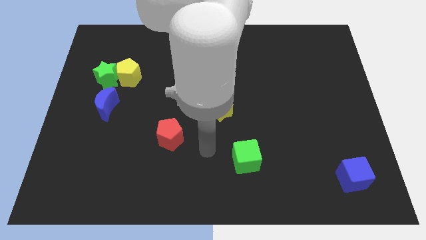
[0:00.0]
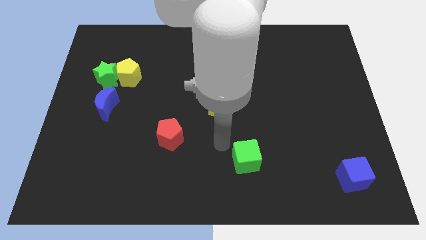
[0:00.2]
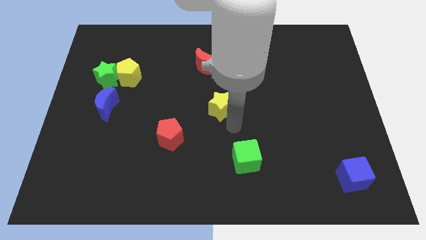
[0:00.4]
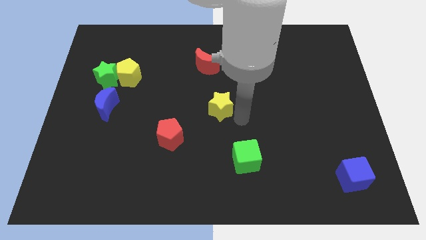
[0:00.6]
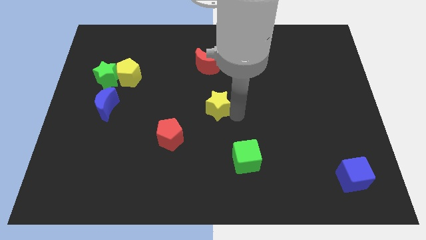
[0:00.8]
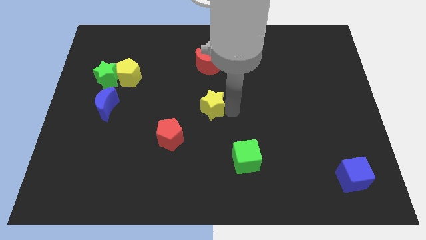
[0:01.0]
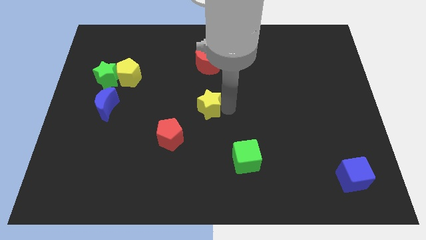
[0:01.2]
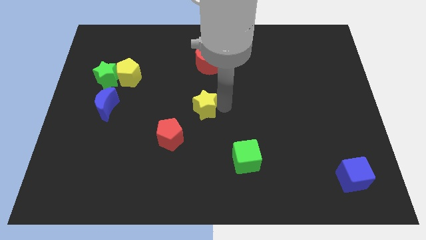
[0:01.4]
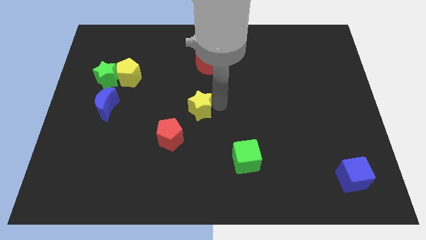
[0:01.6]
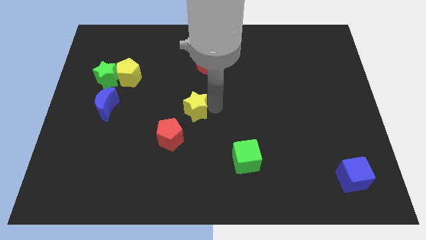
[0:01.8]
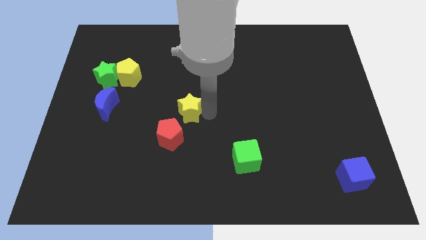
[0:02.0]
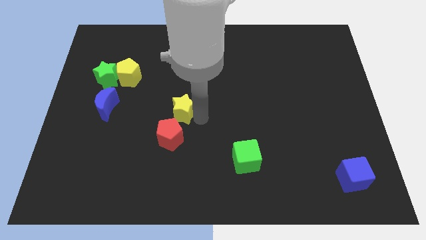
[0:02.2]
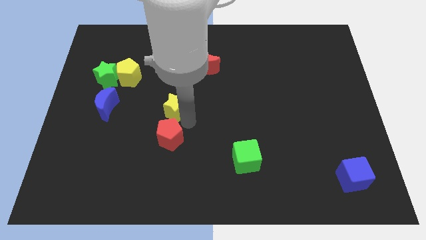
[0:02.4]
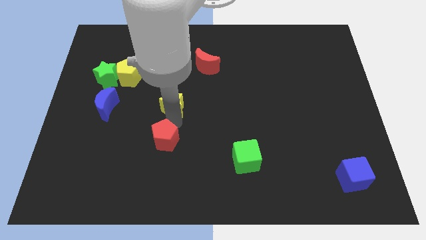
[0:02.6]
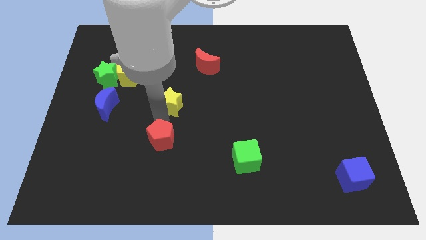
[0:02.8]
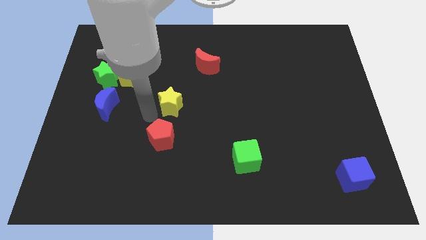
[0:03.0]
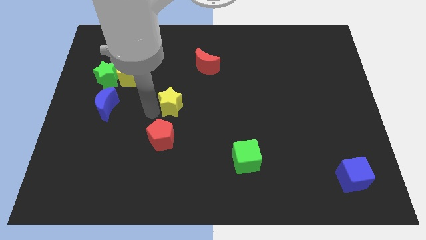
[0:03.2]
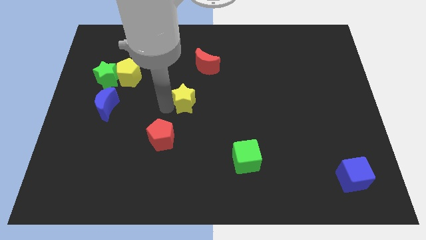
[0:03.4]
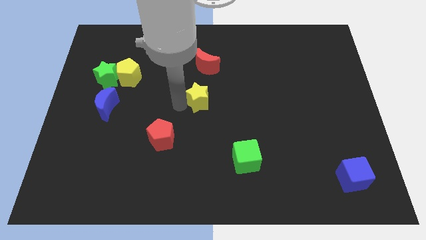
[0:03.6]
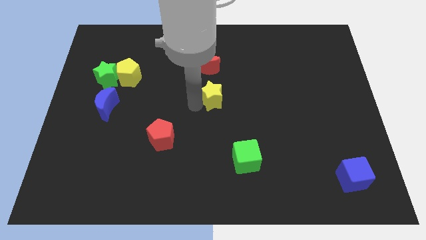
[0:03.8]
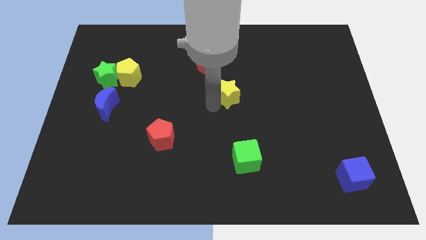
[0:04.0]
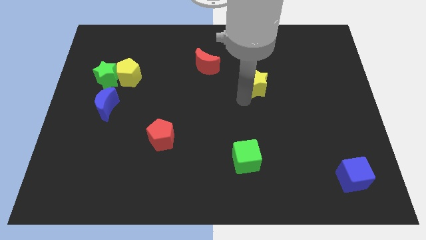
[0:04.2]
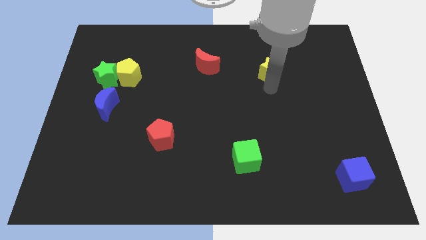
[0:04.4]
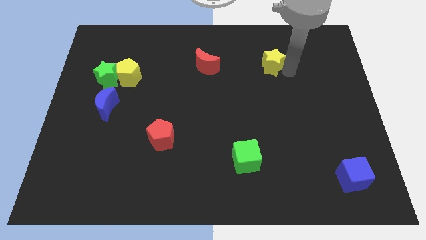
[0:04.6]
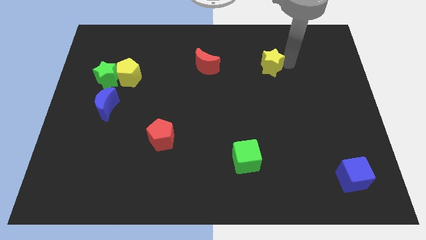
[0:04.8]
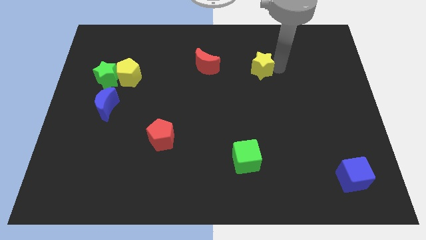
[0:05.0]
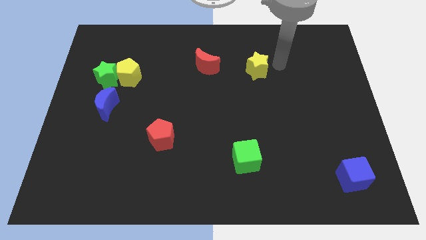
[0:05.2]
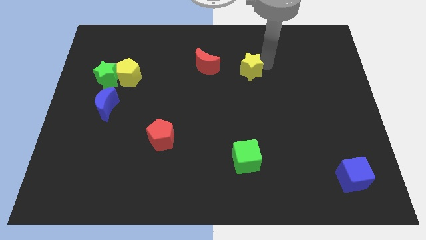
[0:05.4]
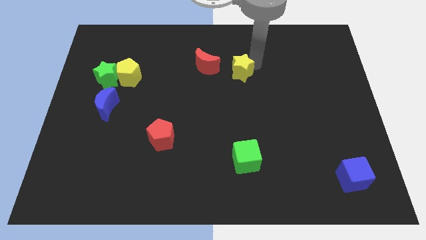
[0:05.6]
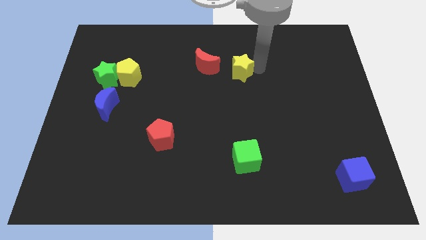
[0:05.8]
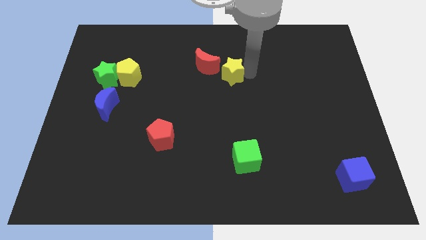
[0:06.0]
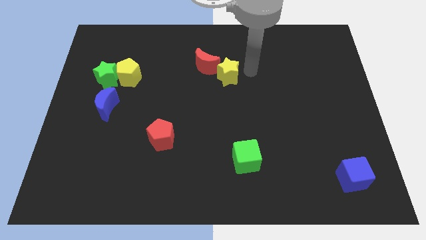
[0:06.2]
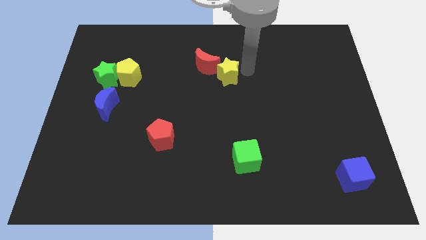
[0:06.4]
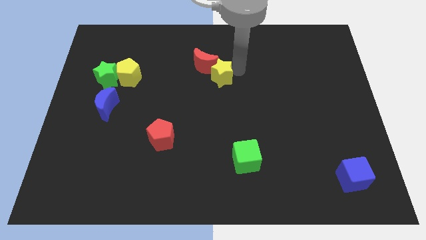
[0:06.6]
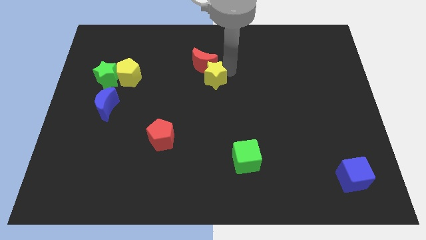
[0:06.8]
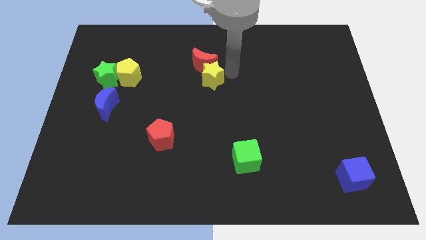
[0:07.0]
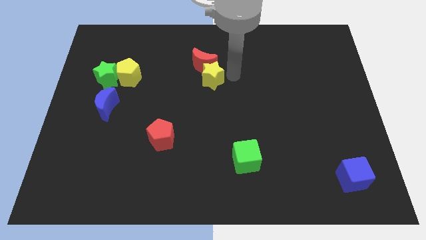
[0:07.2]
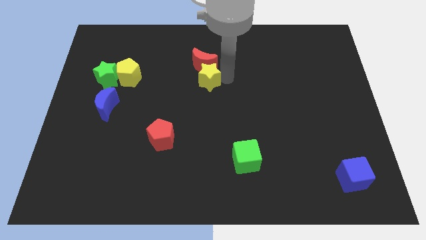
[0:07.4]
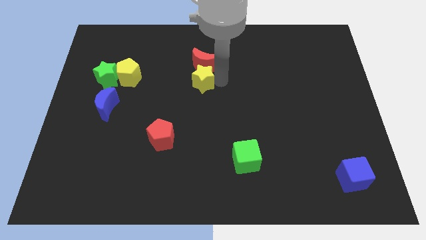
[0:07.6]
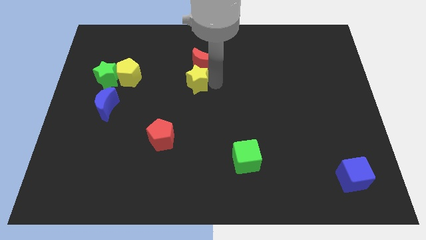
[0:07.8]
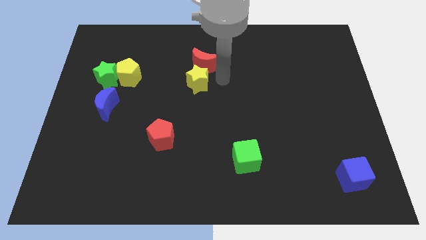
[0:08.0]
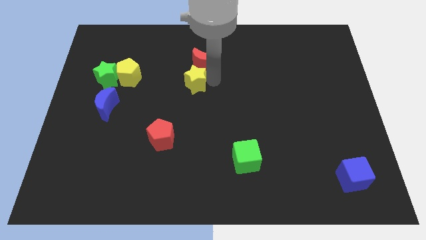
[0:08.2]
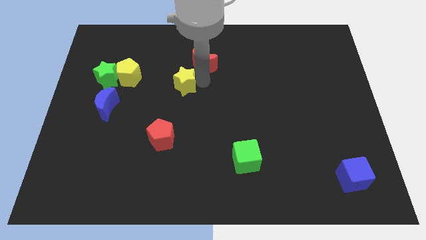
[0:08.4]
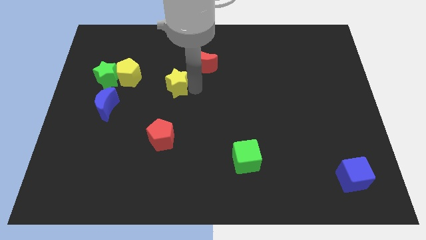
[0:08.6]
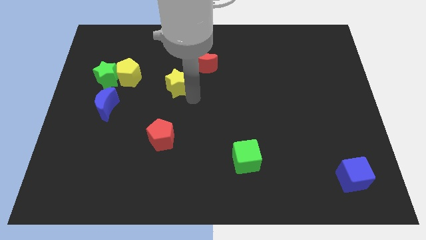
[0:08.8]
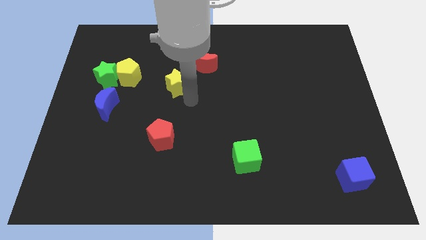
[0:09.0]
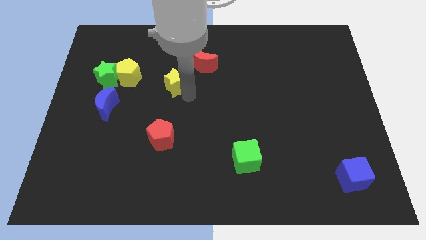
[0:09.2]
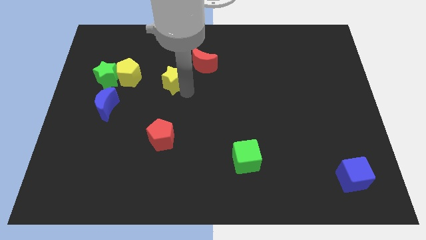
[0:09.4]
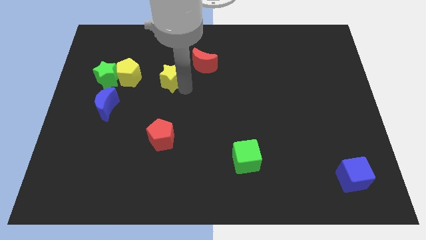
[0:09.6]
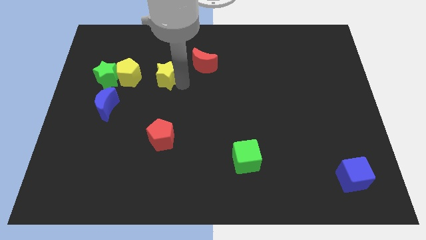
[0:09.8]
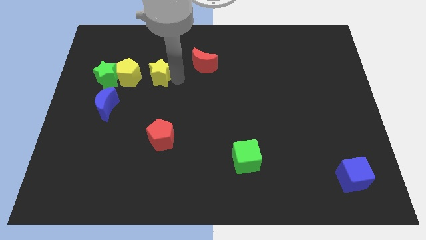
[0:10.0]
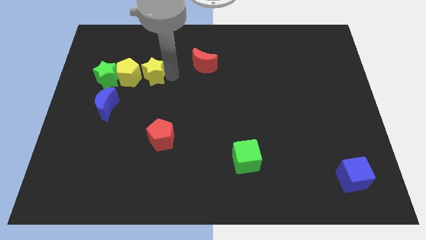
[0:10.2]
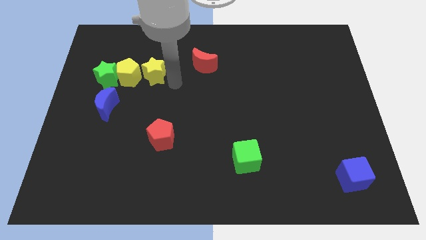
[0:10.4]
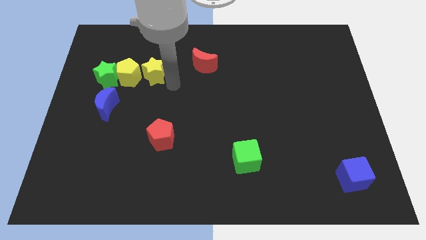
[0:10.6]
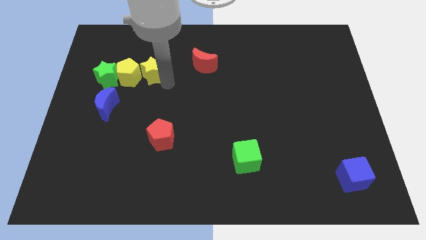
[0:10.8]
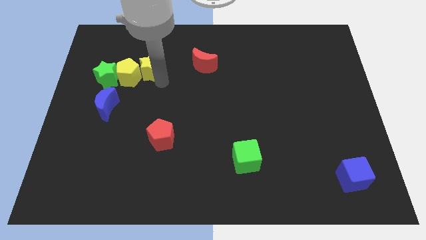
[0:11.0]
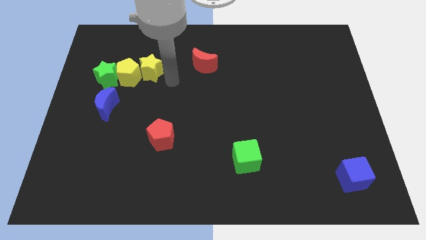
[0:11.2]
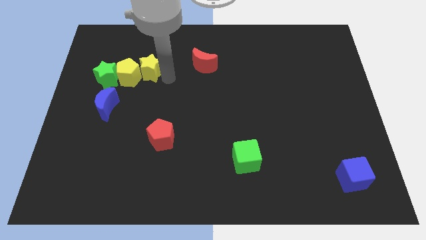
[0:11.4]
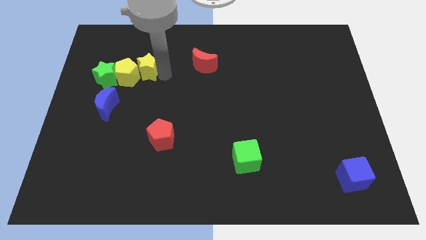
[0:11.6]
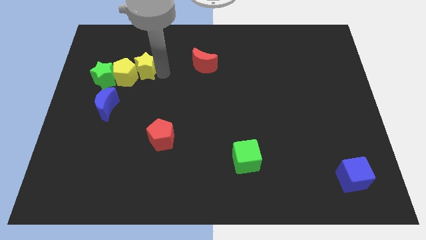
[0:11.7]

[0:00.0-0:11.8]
move the yellow star to the top right of the green star
